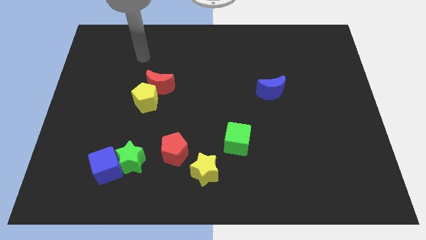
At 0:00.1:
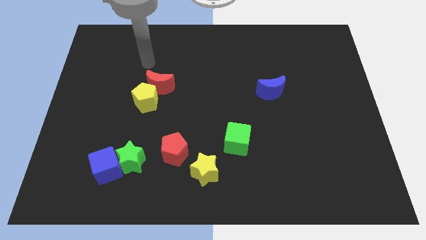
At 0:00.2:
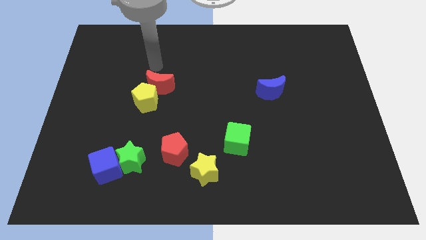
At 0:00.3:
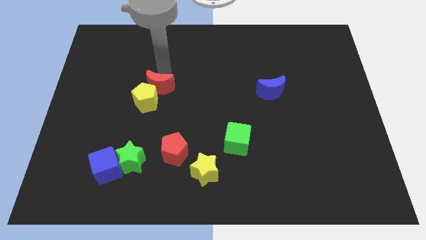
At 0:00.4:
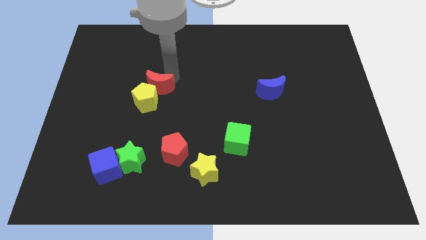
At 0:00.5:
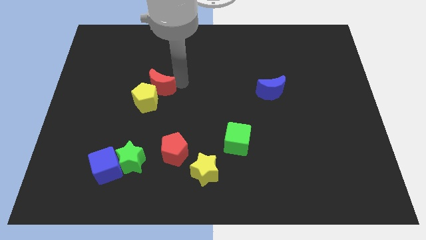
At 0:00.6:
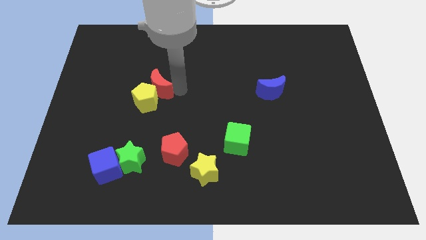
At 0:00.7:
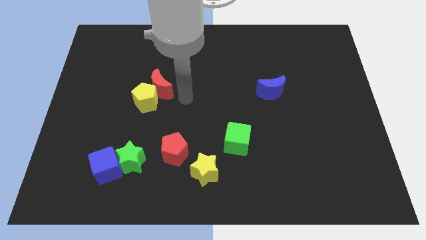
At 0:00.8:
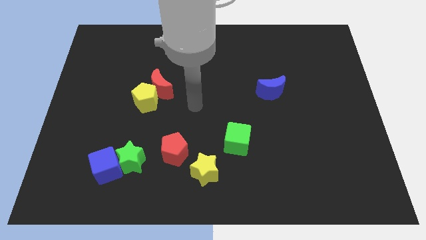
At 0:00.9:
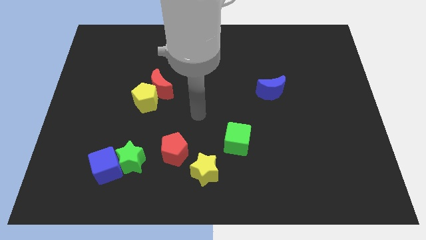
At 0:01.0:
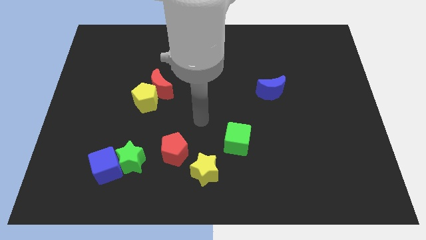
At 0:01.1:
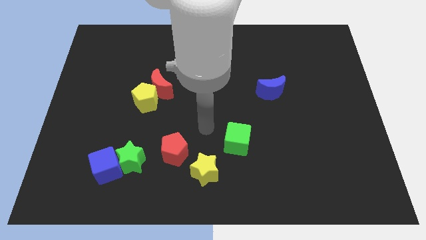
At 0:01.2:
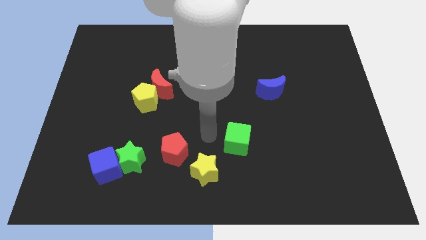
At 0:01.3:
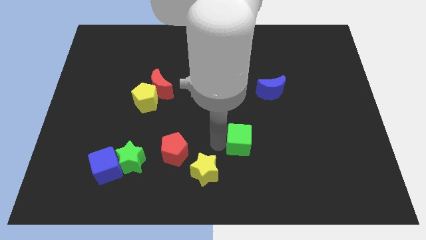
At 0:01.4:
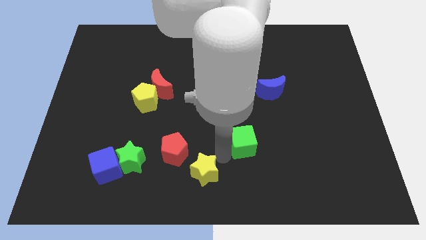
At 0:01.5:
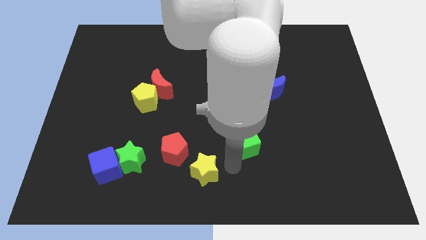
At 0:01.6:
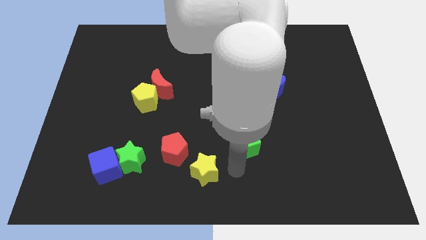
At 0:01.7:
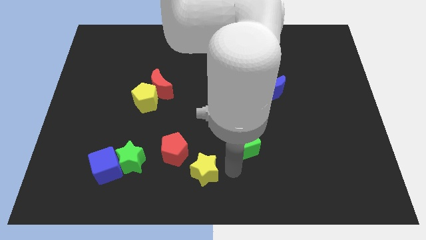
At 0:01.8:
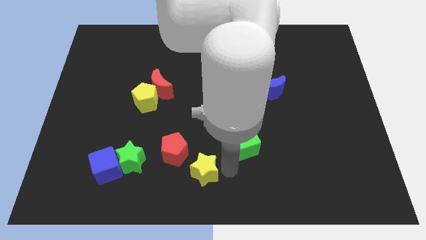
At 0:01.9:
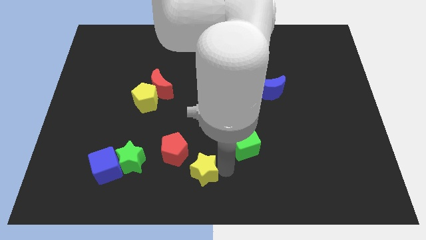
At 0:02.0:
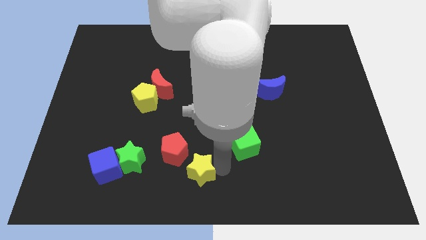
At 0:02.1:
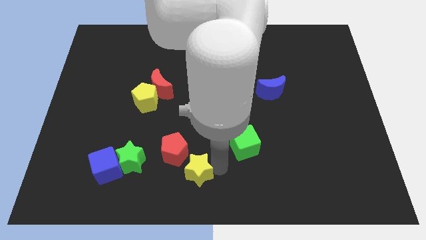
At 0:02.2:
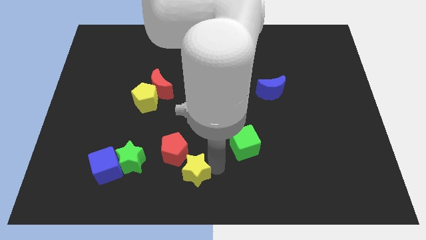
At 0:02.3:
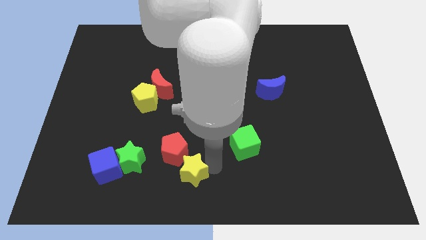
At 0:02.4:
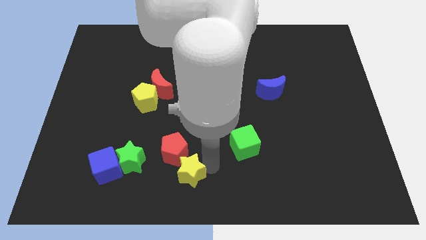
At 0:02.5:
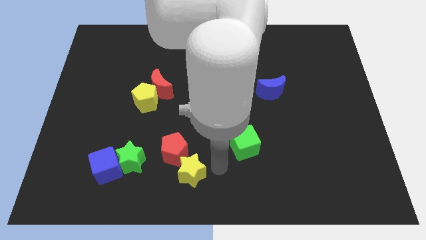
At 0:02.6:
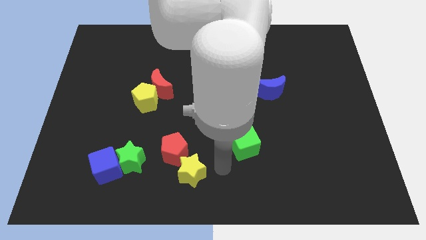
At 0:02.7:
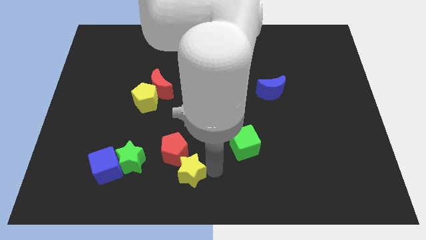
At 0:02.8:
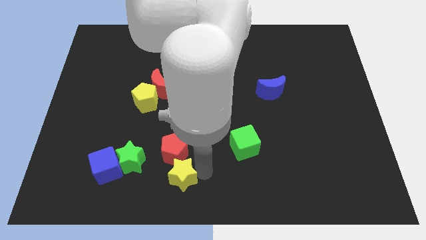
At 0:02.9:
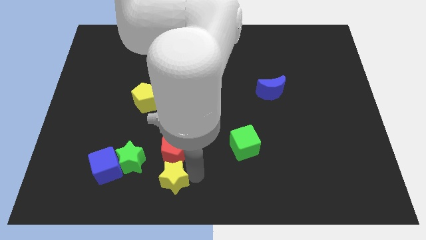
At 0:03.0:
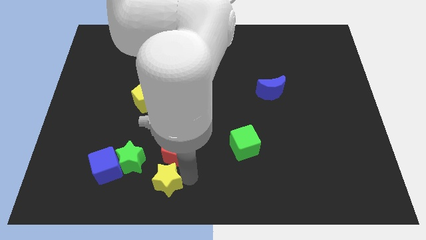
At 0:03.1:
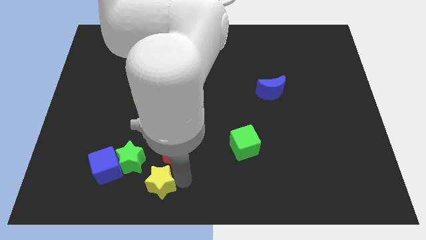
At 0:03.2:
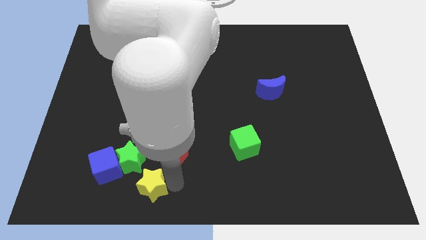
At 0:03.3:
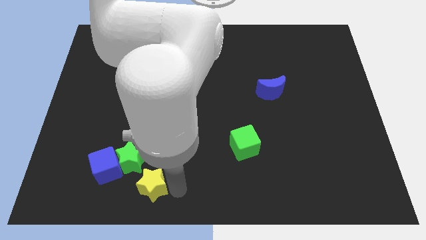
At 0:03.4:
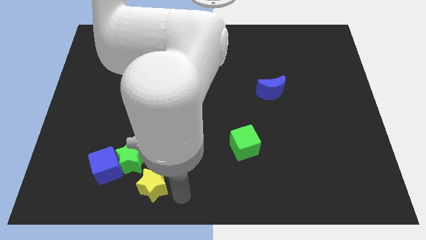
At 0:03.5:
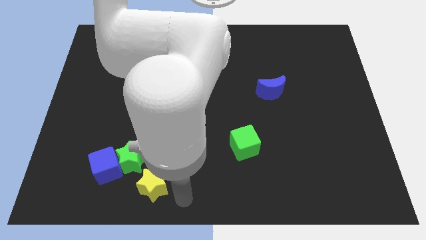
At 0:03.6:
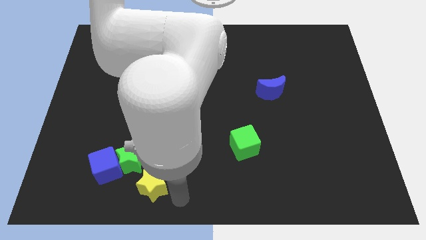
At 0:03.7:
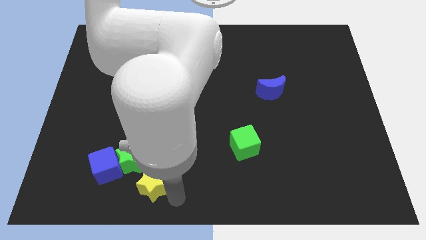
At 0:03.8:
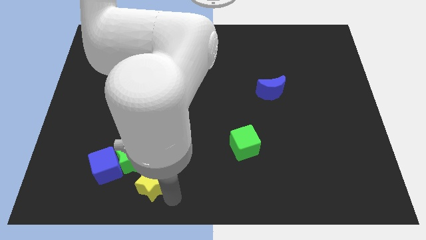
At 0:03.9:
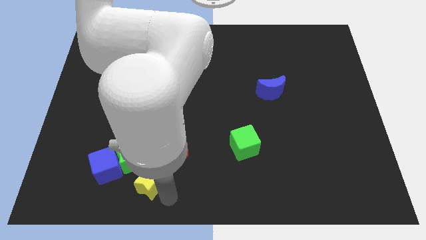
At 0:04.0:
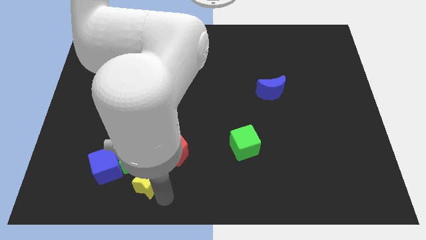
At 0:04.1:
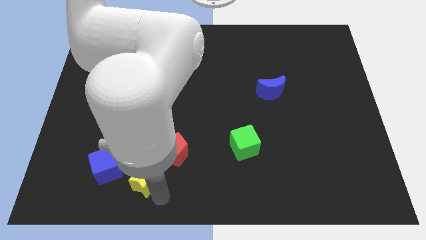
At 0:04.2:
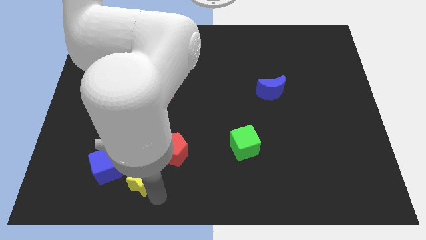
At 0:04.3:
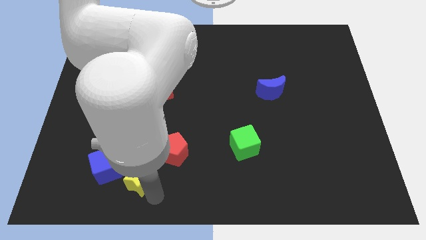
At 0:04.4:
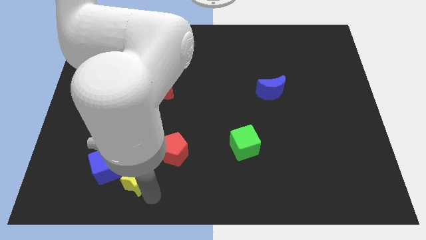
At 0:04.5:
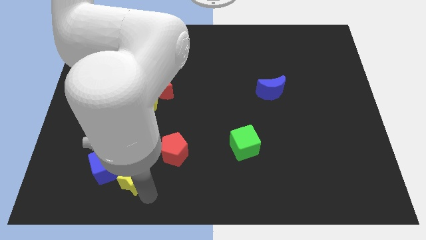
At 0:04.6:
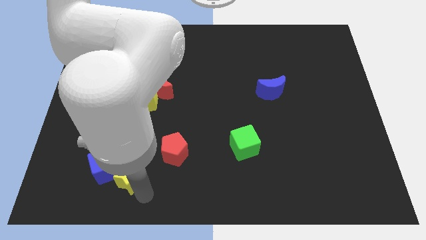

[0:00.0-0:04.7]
move the yellow star close to the blue cube

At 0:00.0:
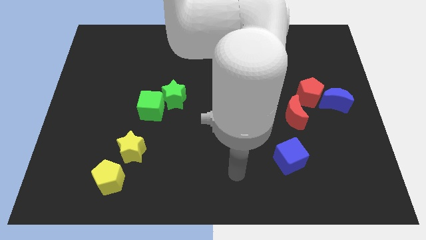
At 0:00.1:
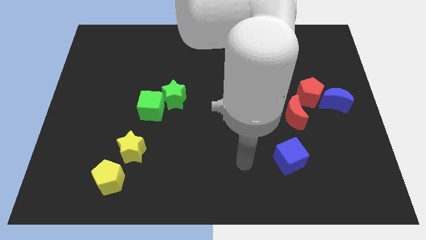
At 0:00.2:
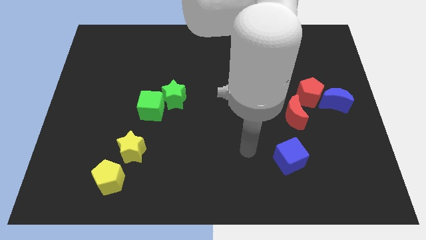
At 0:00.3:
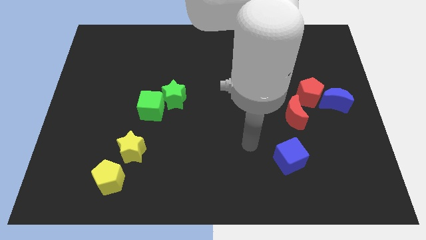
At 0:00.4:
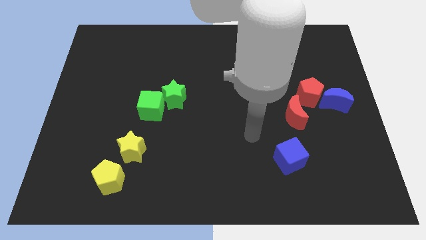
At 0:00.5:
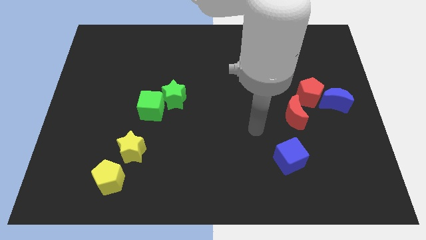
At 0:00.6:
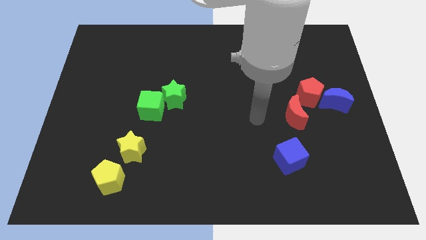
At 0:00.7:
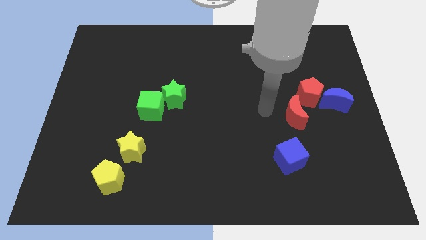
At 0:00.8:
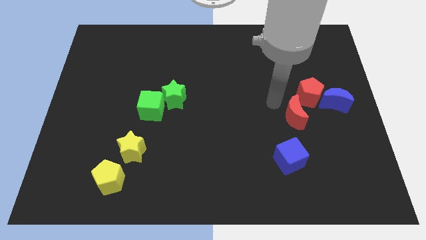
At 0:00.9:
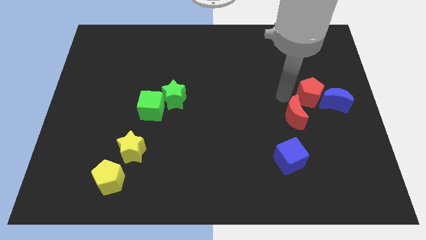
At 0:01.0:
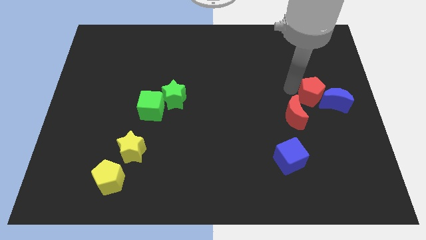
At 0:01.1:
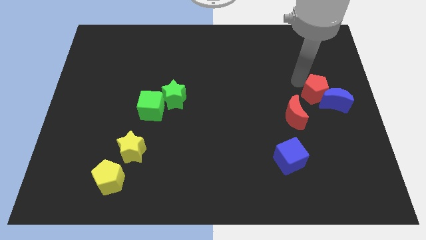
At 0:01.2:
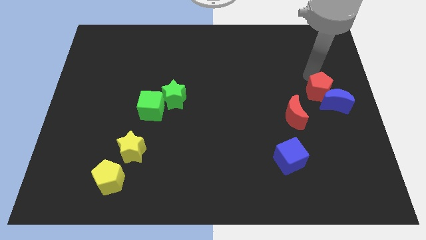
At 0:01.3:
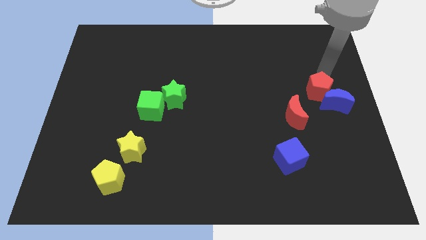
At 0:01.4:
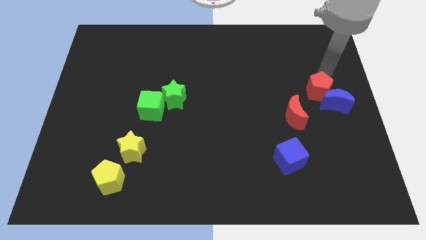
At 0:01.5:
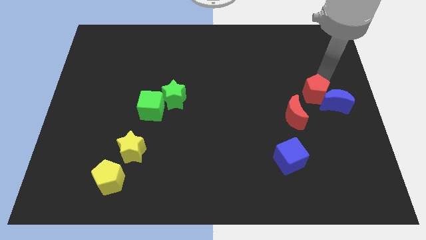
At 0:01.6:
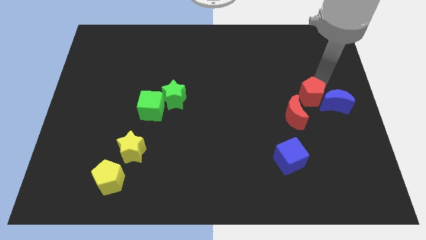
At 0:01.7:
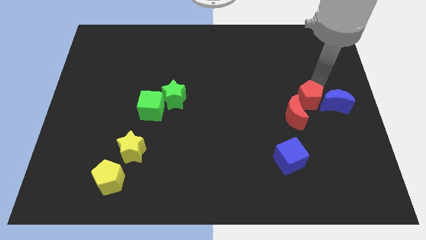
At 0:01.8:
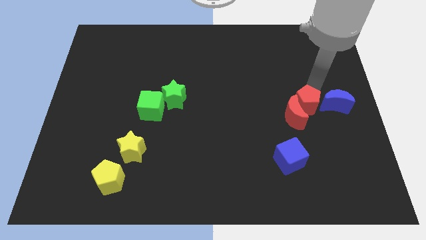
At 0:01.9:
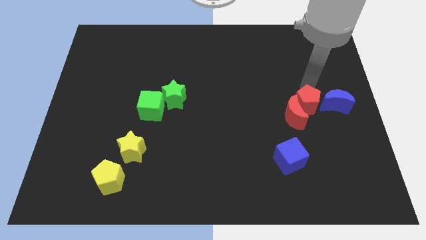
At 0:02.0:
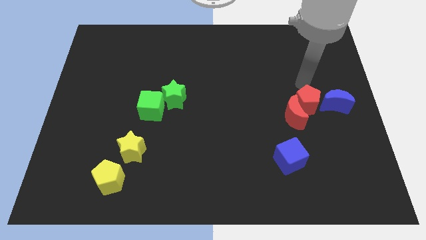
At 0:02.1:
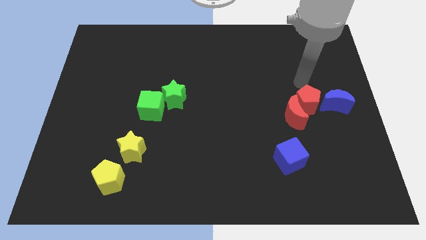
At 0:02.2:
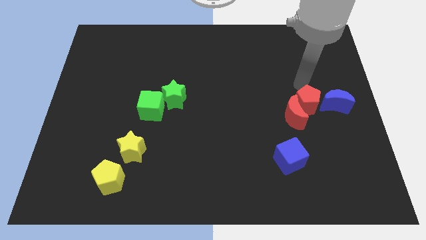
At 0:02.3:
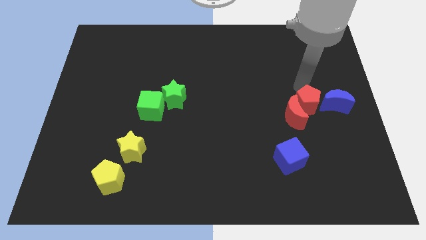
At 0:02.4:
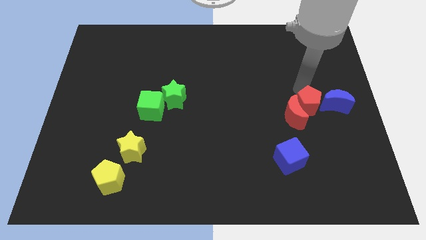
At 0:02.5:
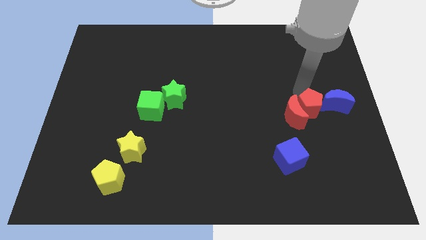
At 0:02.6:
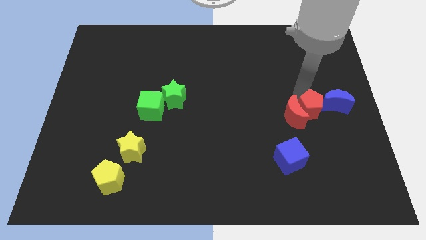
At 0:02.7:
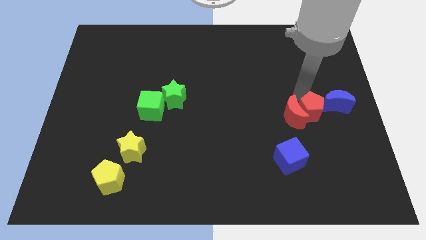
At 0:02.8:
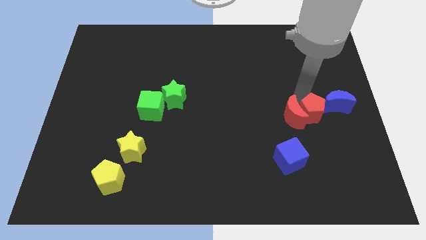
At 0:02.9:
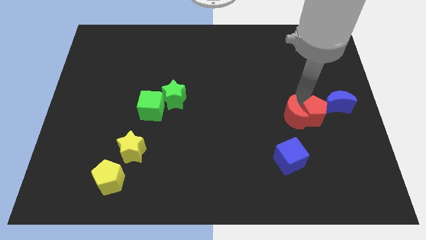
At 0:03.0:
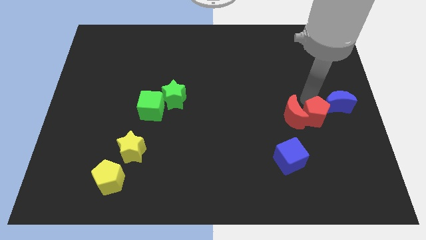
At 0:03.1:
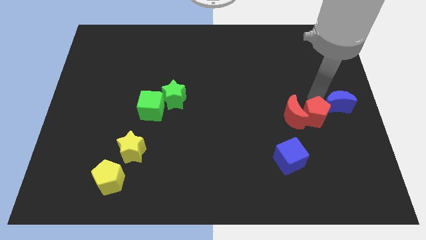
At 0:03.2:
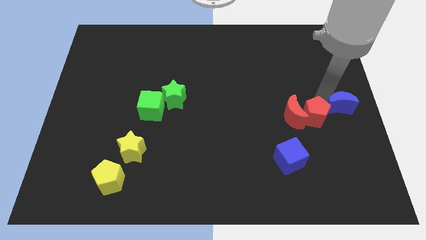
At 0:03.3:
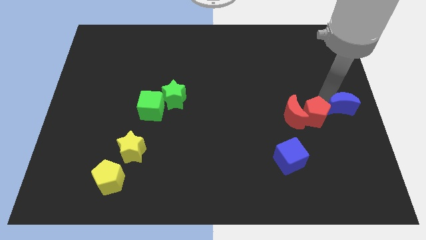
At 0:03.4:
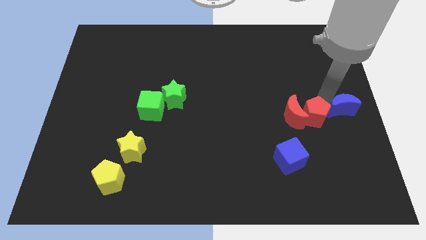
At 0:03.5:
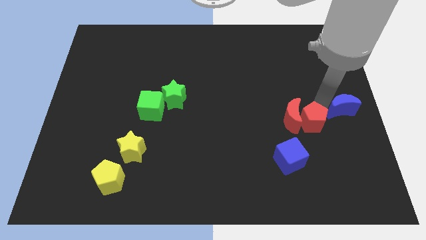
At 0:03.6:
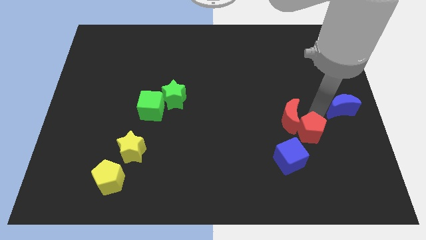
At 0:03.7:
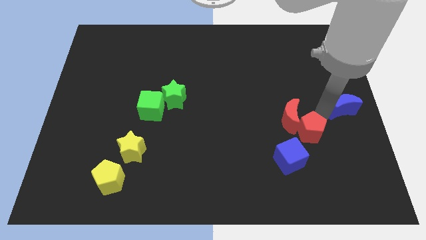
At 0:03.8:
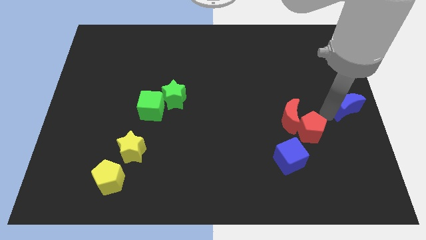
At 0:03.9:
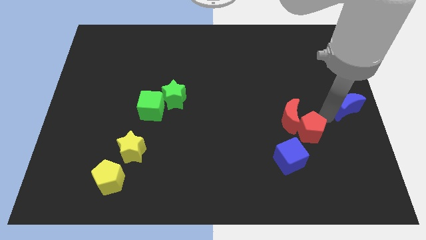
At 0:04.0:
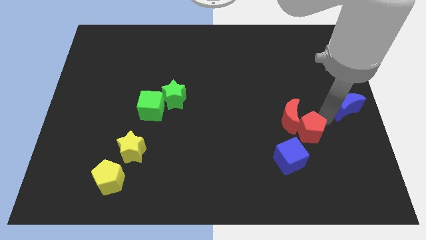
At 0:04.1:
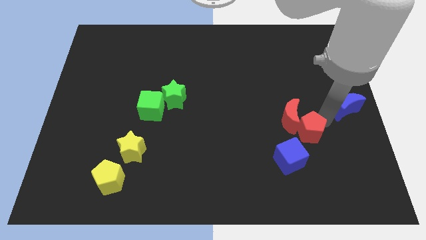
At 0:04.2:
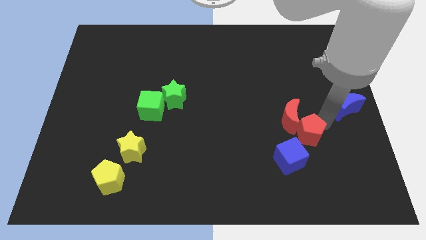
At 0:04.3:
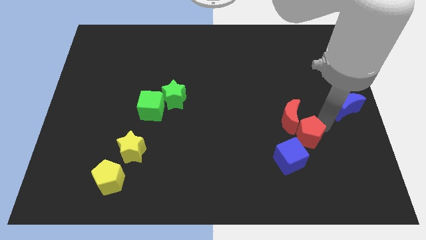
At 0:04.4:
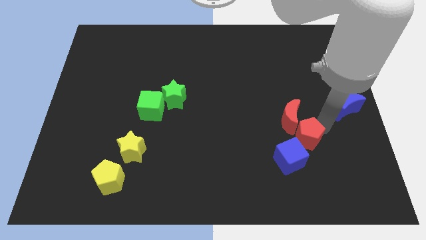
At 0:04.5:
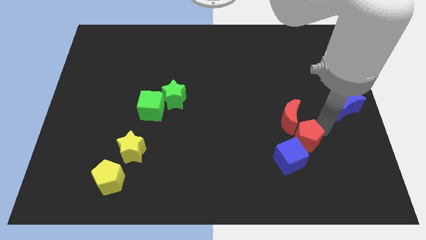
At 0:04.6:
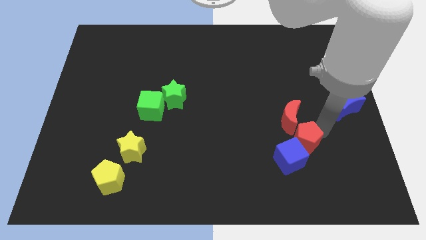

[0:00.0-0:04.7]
slide the red pentagon next to the blue cube
